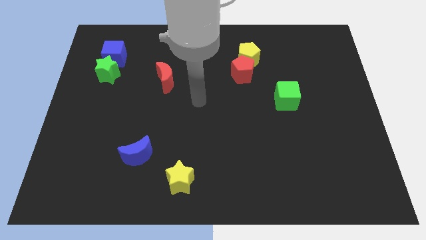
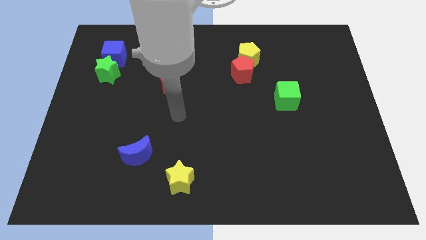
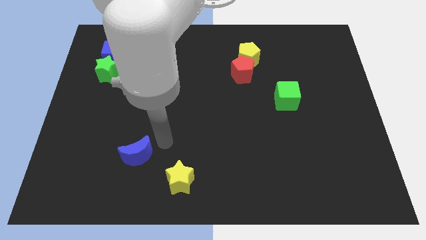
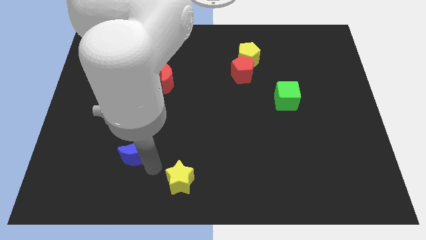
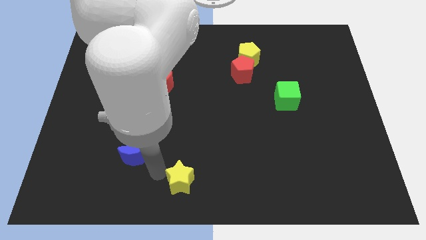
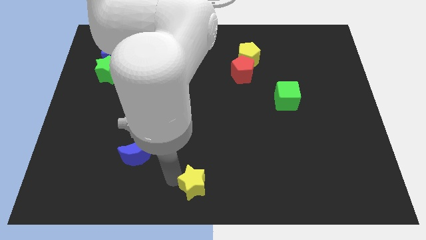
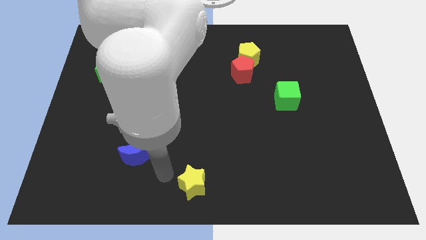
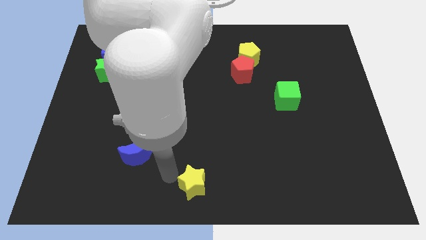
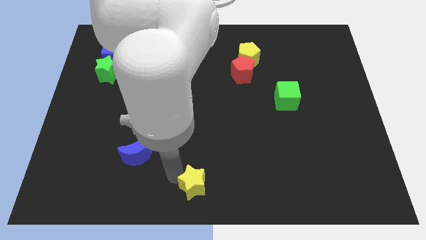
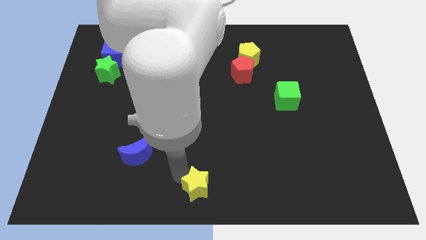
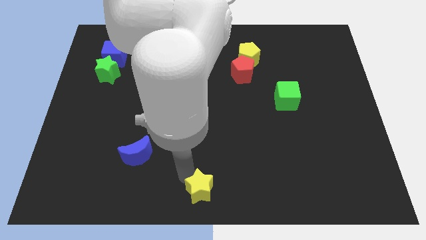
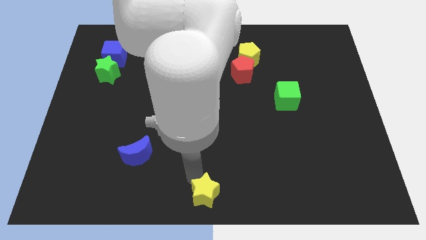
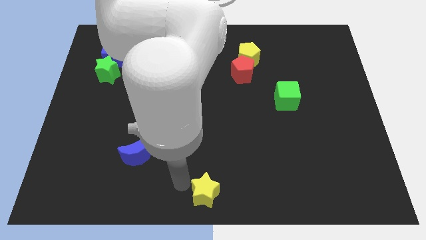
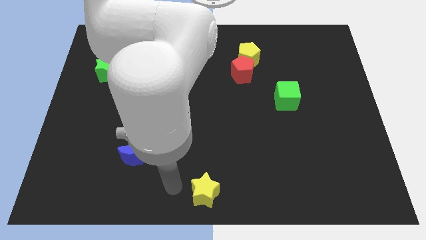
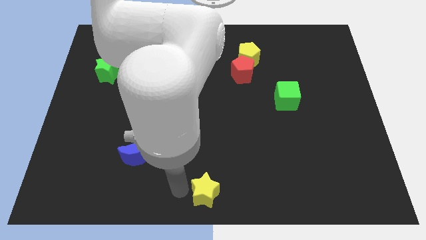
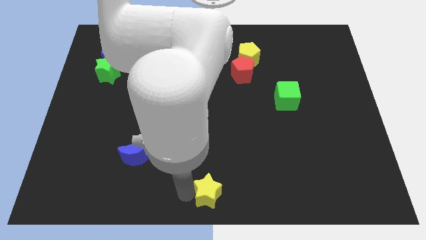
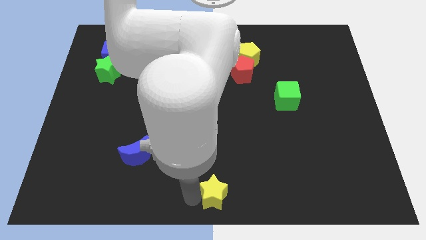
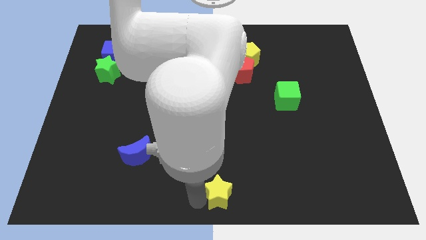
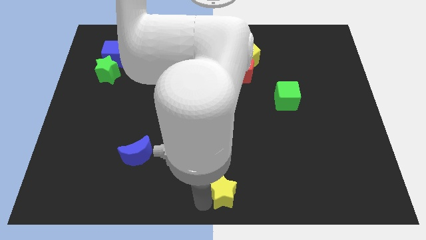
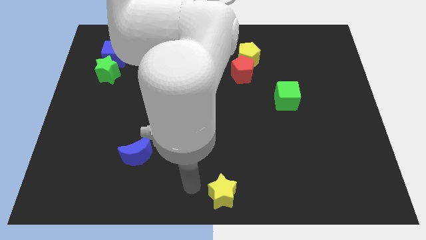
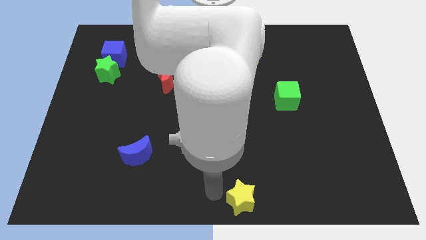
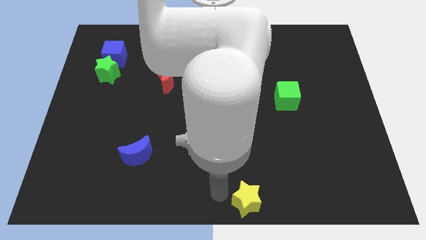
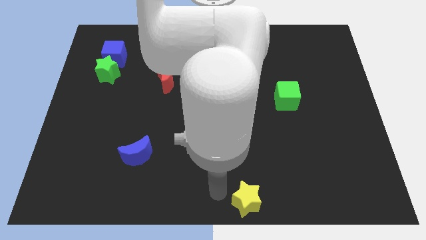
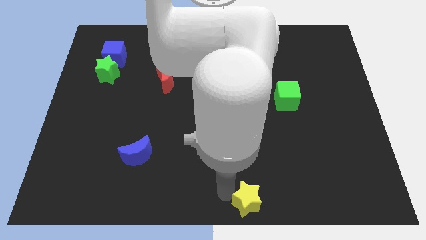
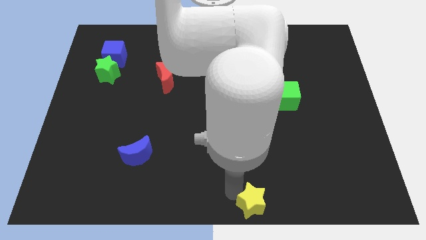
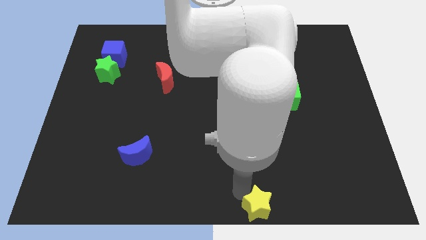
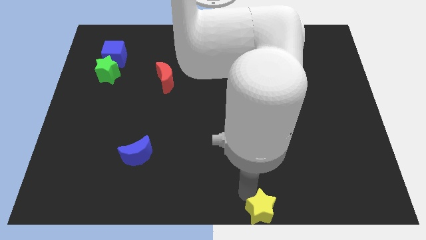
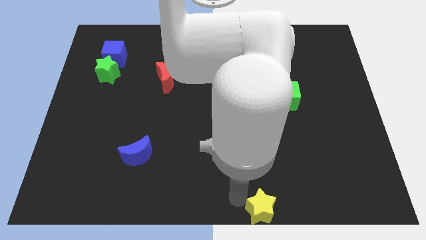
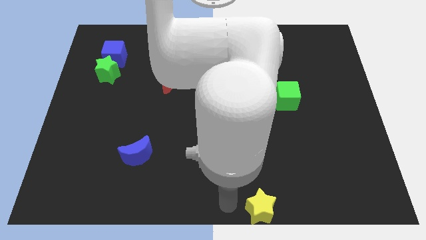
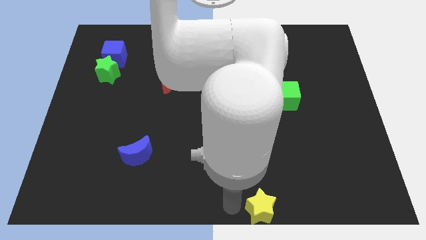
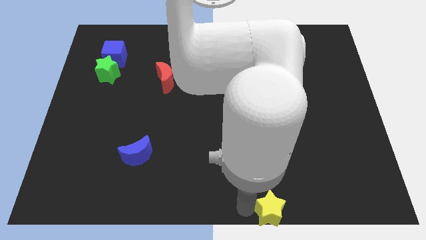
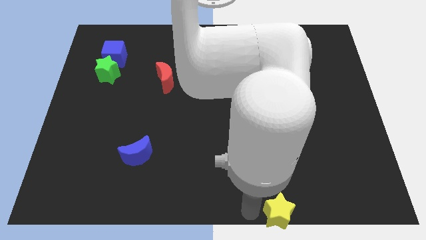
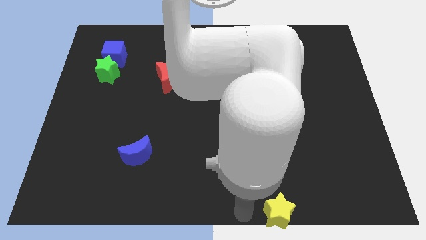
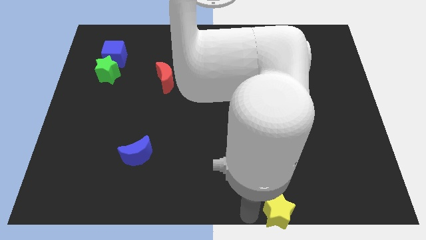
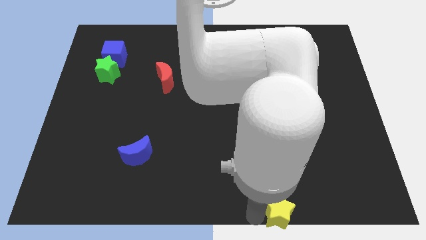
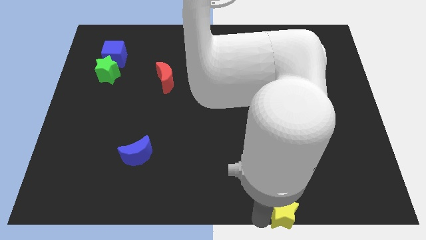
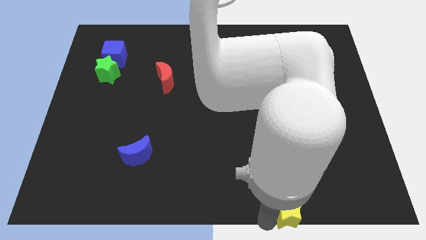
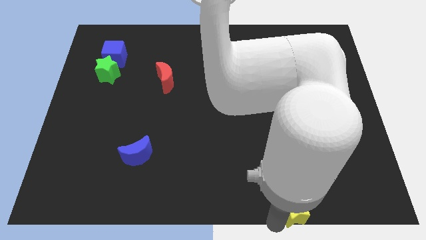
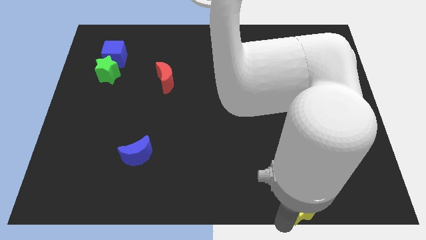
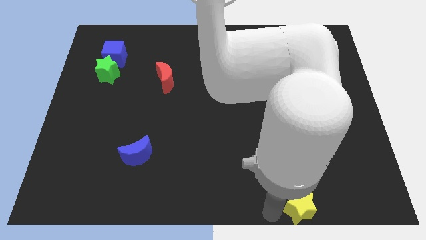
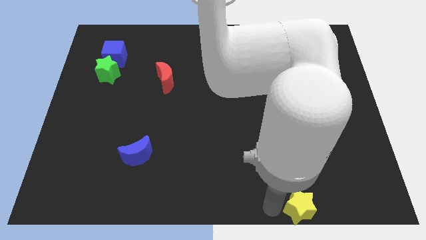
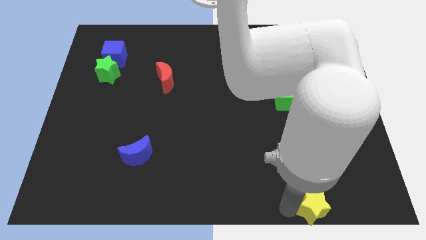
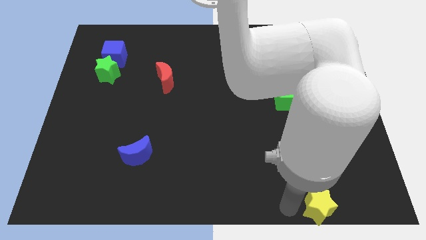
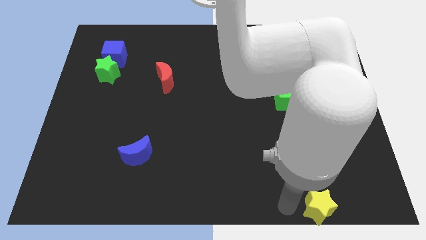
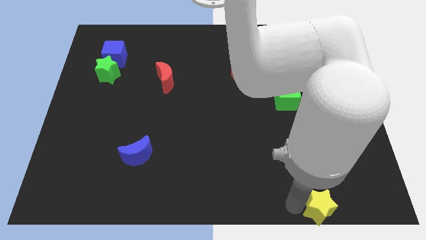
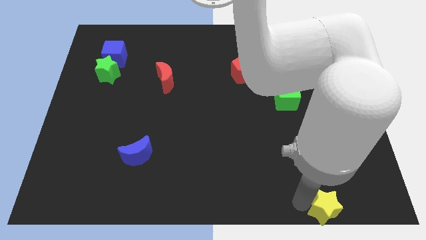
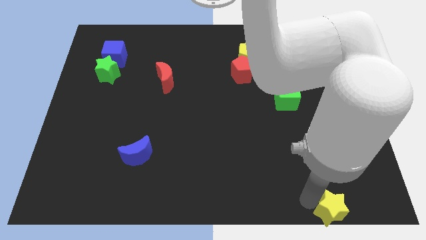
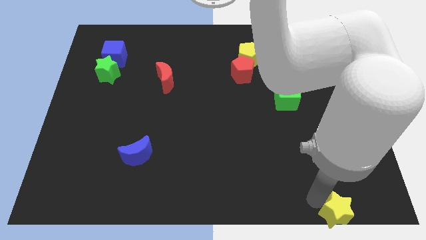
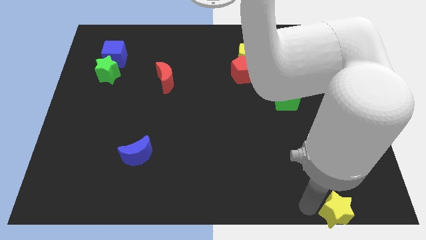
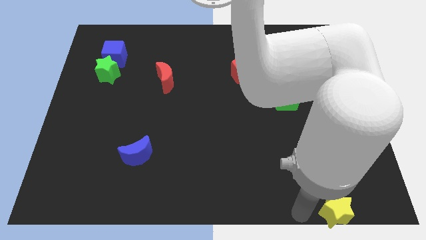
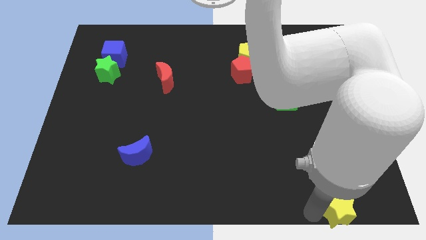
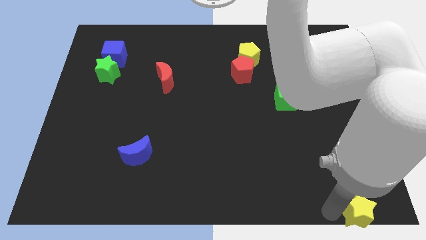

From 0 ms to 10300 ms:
slide the yellow star to the bottom right corner

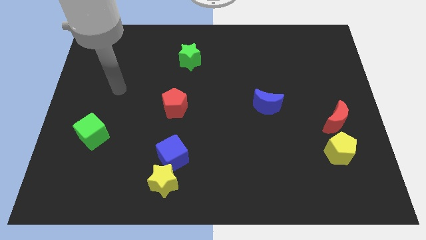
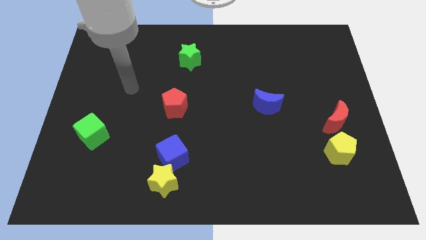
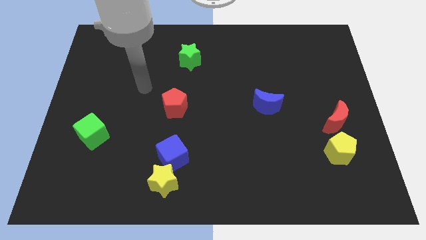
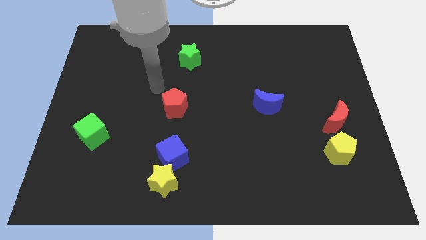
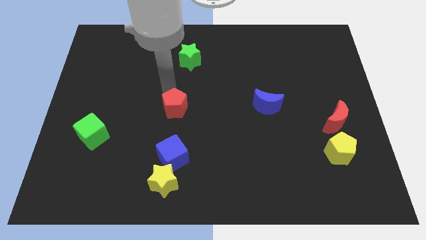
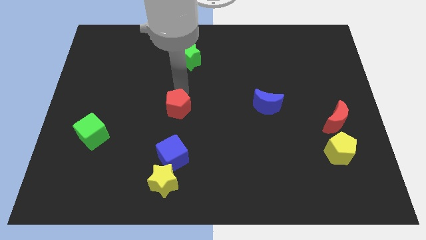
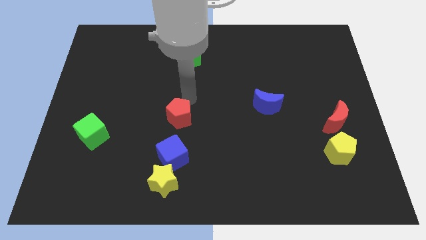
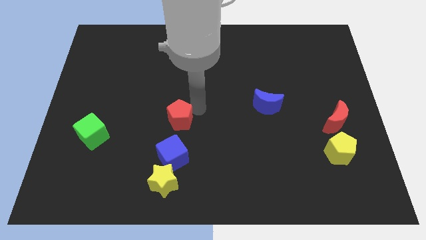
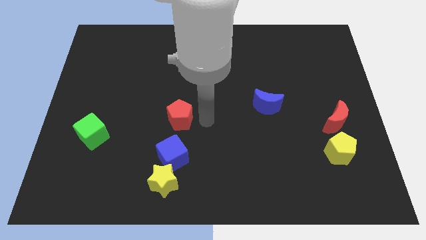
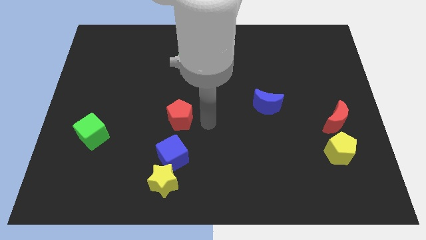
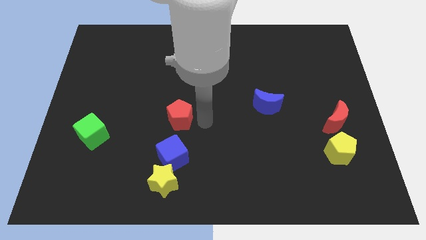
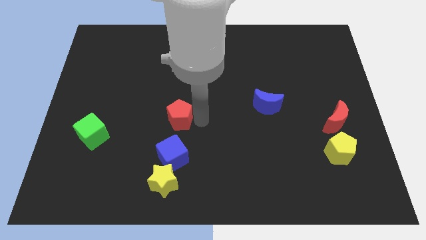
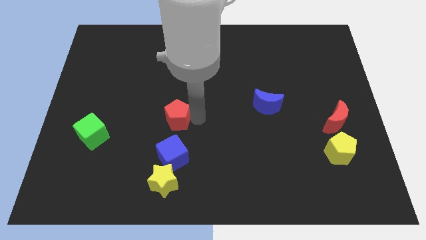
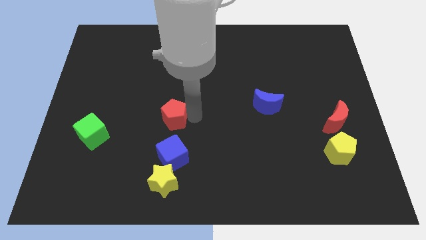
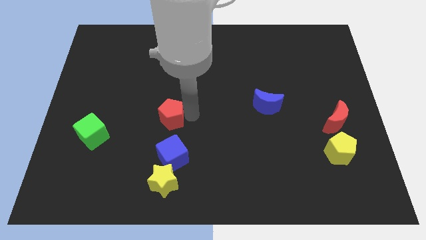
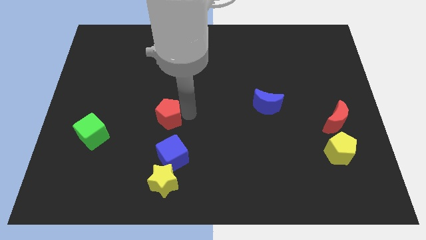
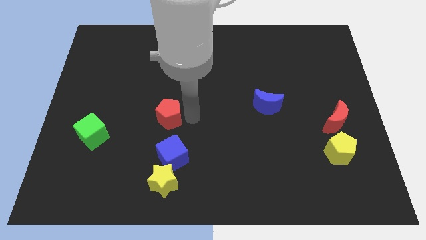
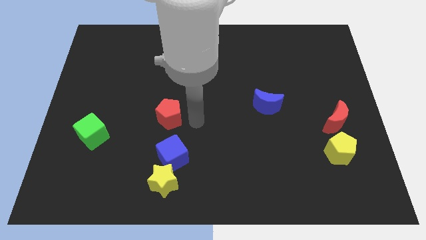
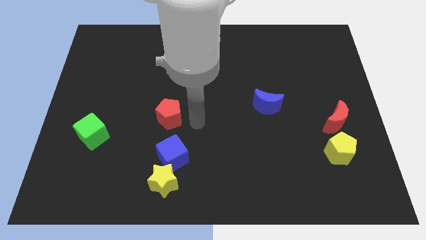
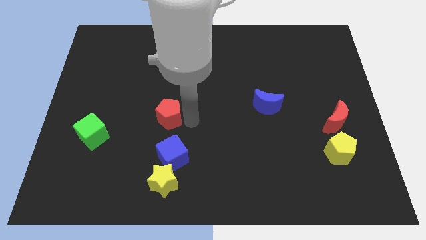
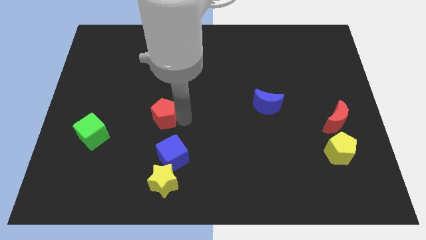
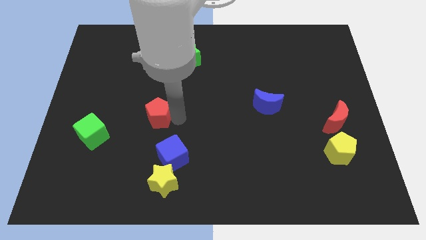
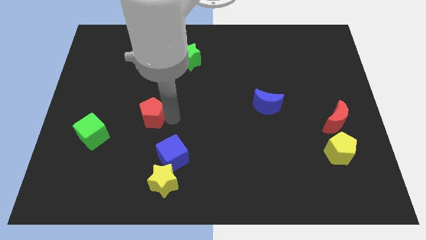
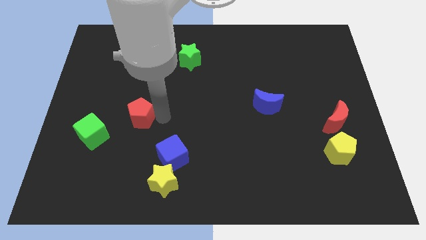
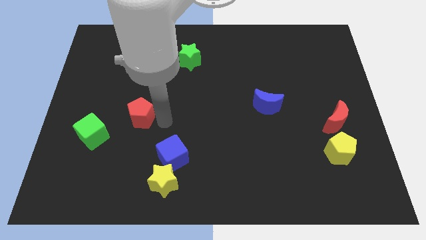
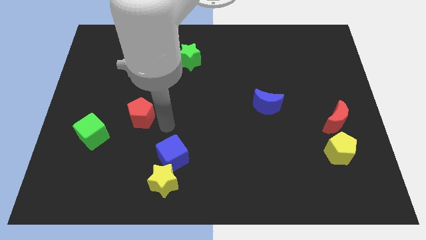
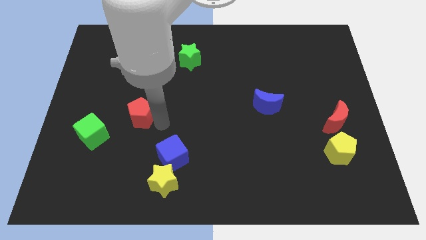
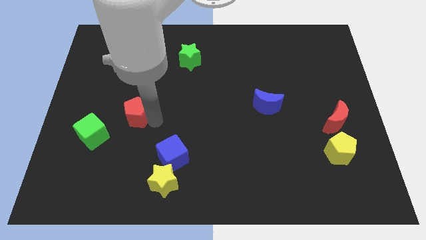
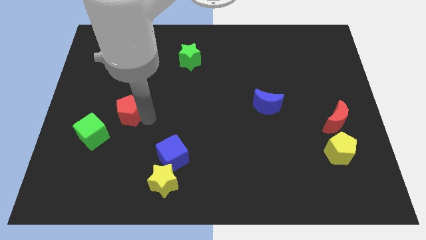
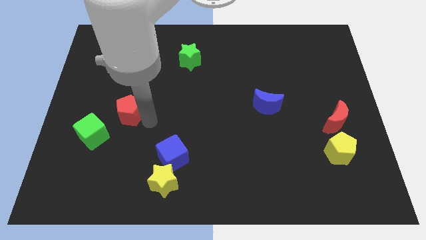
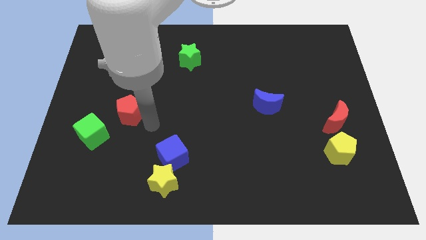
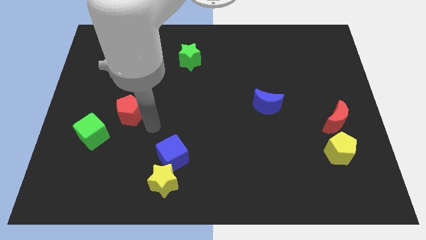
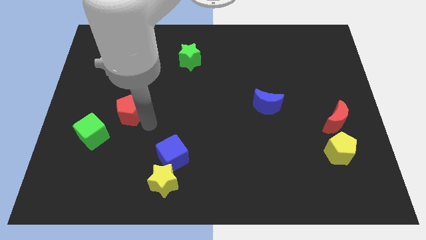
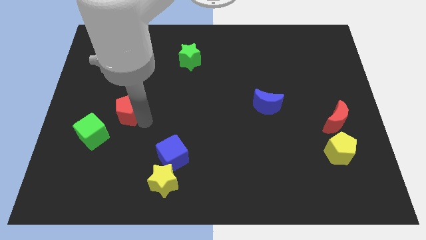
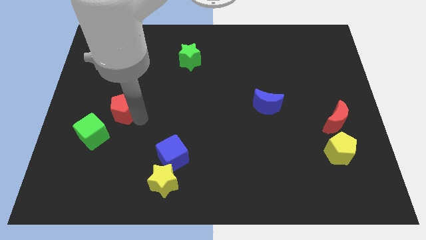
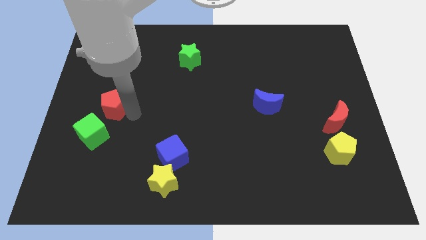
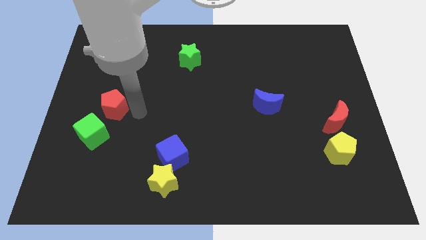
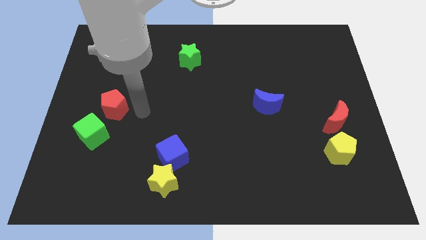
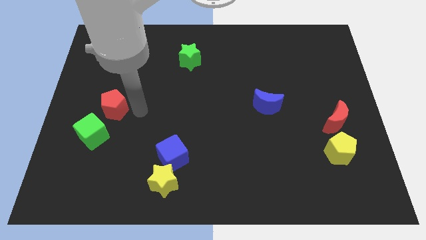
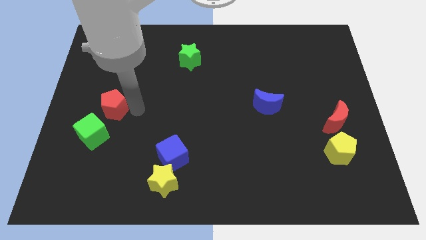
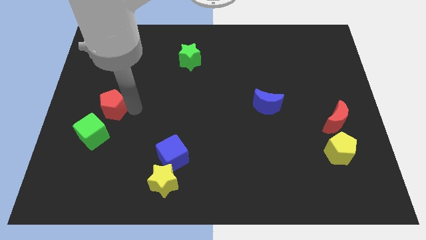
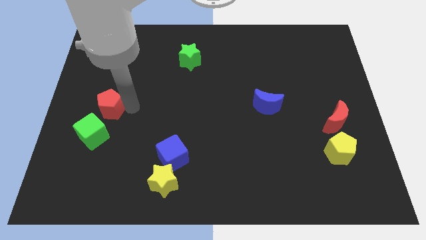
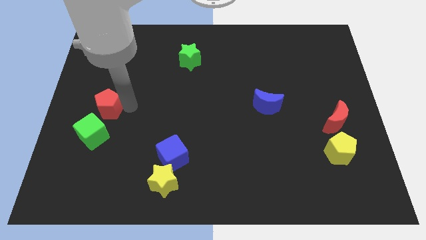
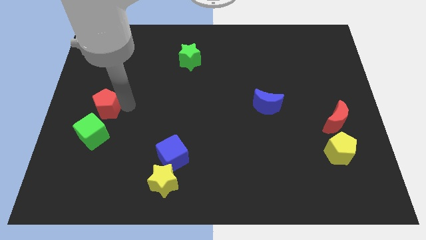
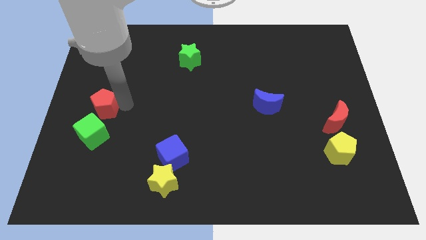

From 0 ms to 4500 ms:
move the red pentagon to the center left
